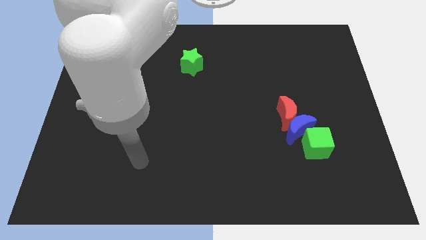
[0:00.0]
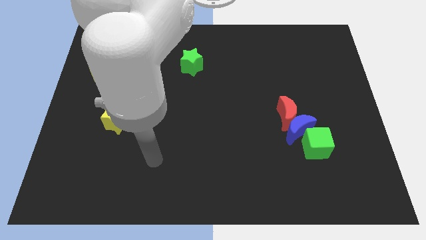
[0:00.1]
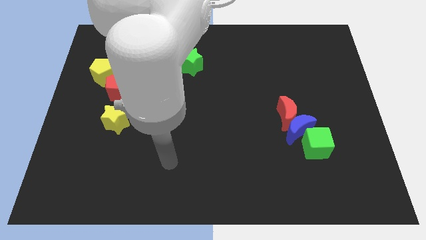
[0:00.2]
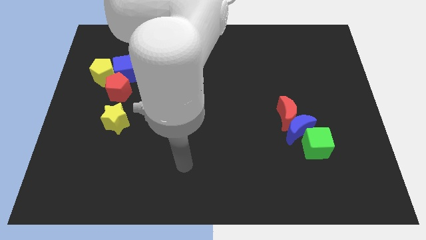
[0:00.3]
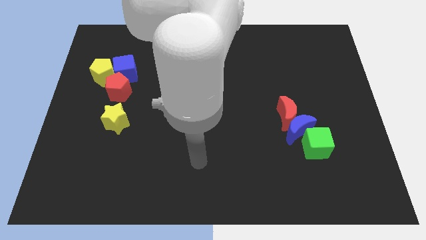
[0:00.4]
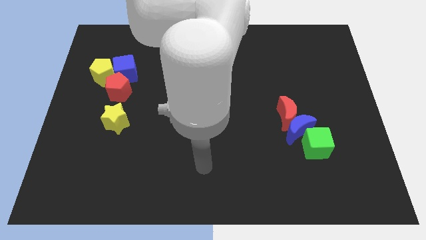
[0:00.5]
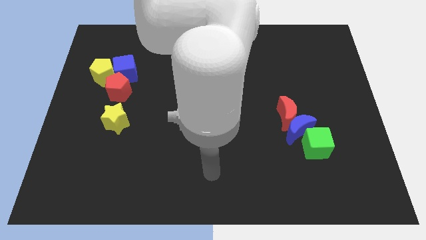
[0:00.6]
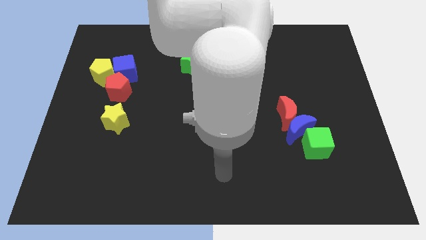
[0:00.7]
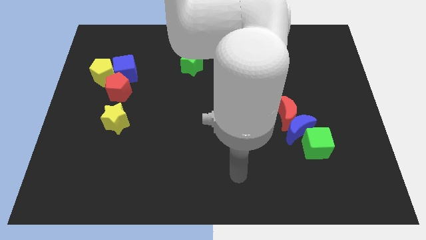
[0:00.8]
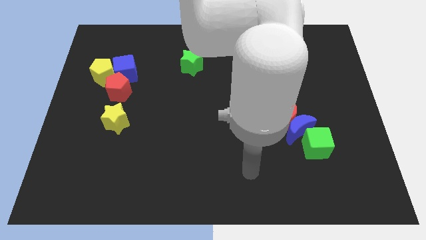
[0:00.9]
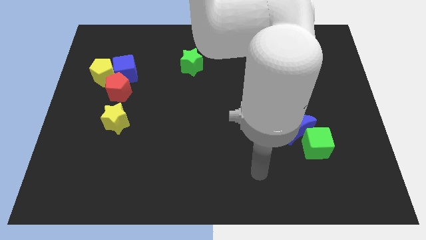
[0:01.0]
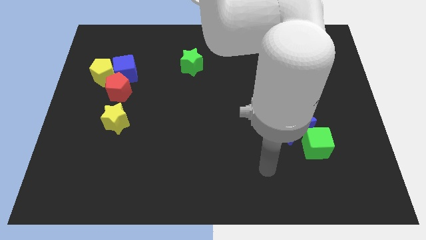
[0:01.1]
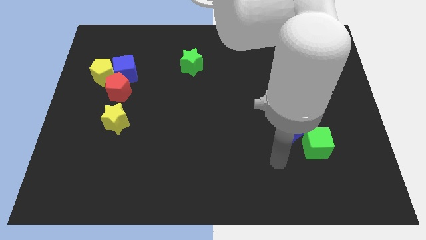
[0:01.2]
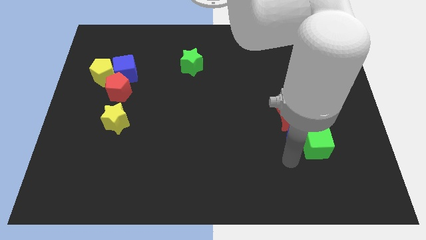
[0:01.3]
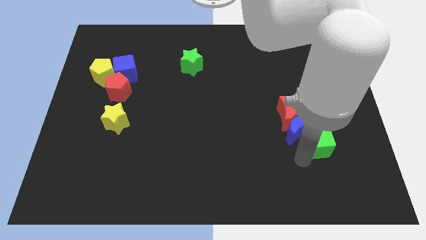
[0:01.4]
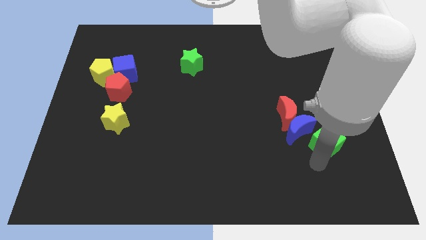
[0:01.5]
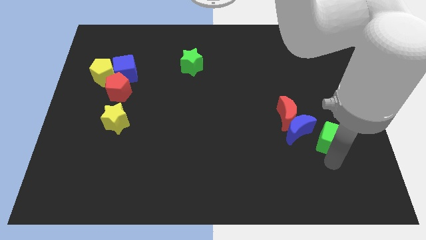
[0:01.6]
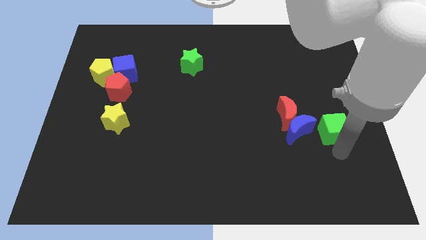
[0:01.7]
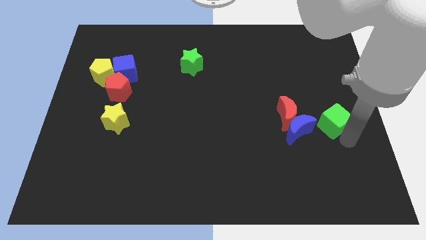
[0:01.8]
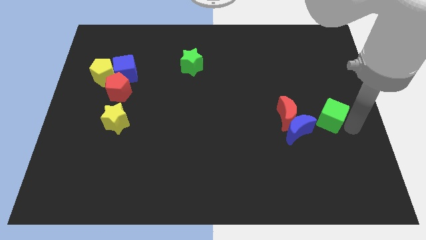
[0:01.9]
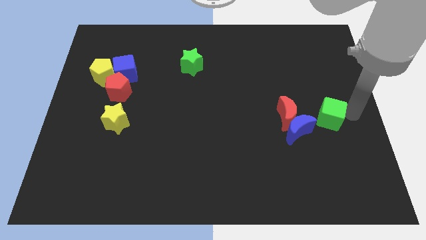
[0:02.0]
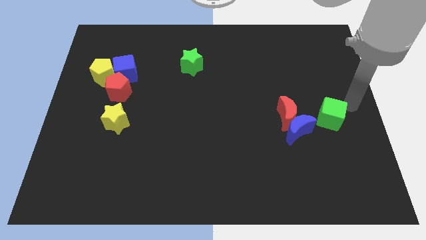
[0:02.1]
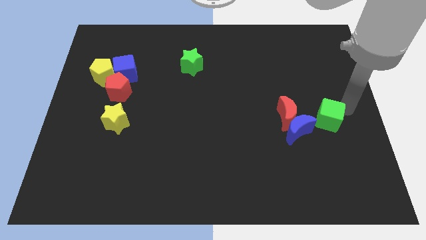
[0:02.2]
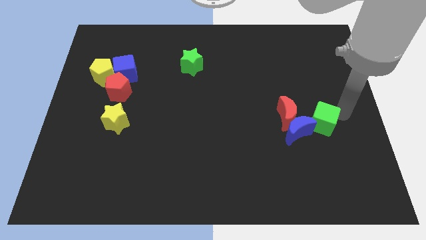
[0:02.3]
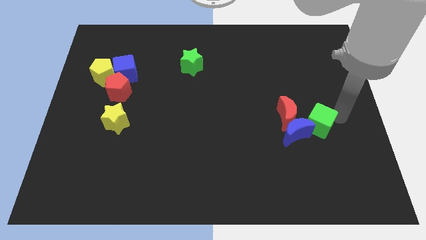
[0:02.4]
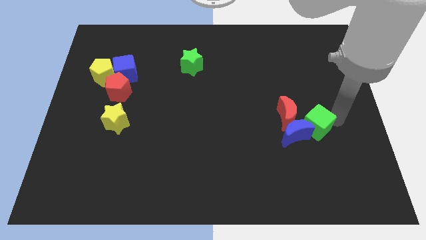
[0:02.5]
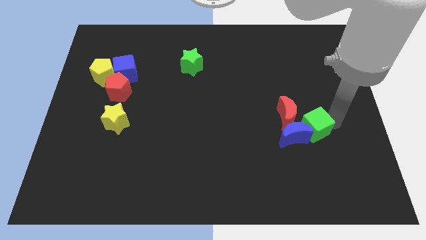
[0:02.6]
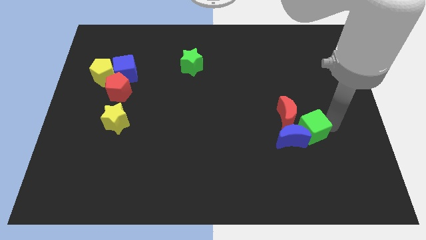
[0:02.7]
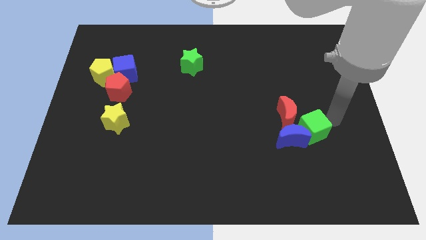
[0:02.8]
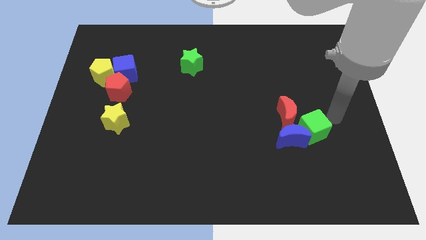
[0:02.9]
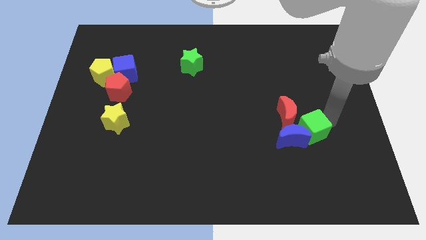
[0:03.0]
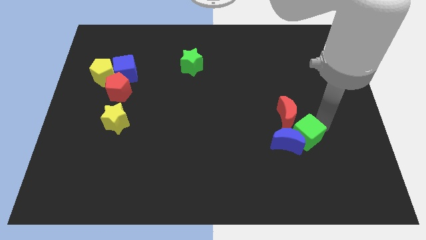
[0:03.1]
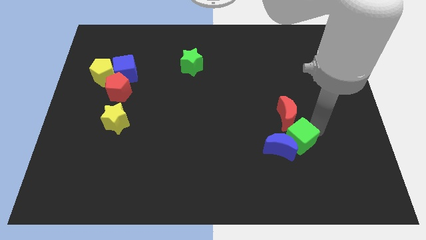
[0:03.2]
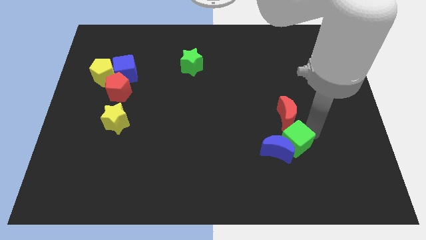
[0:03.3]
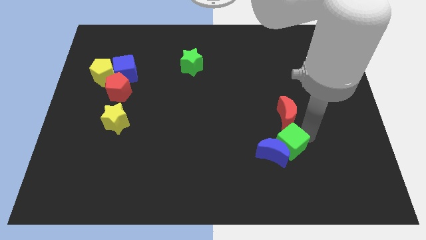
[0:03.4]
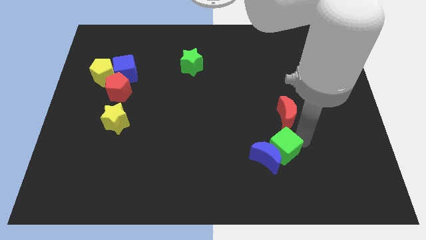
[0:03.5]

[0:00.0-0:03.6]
slide the green cube slightly left

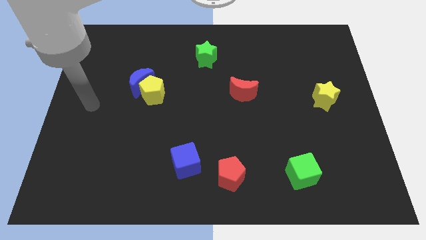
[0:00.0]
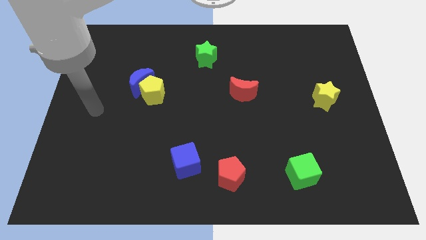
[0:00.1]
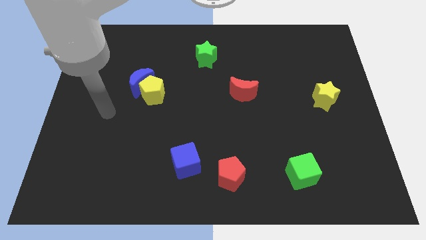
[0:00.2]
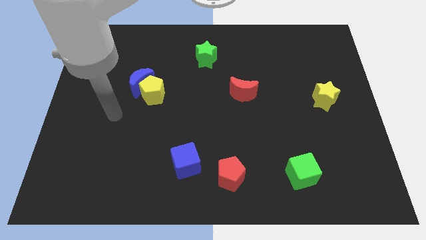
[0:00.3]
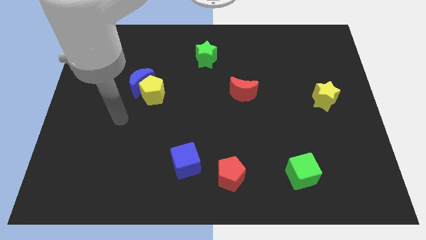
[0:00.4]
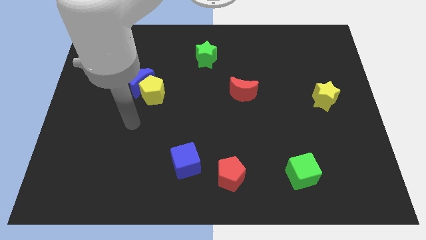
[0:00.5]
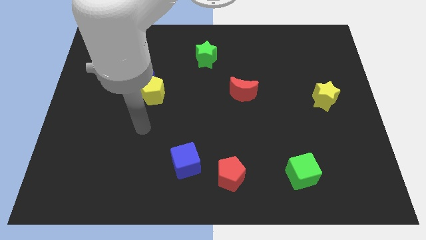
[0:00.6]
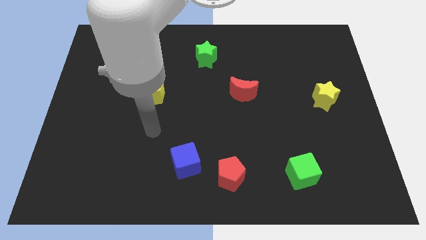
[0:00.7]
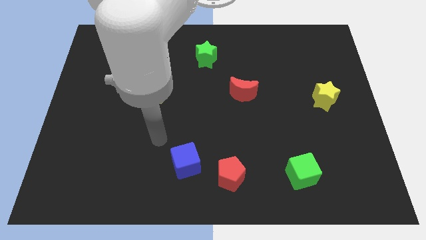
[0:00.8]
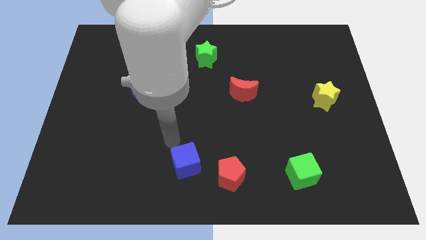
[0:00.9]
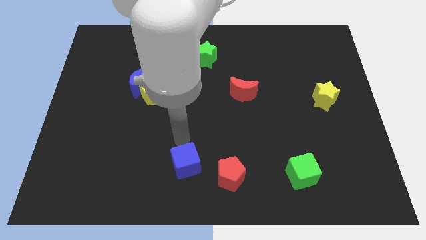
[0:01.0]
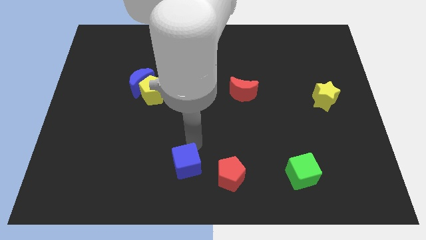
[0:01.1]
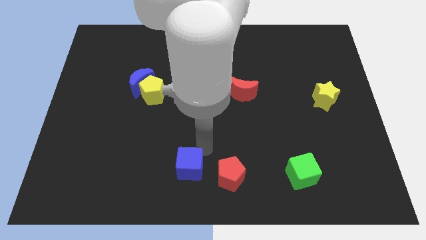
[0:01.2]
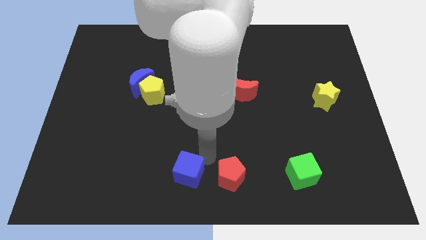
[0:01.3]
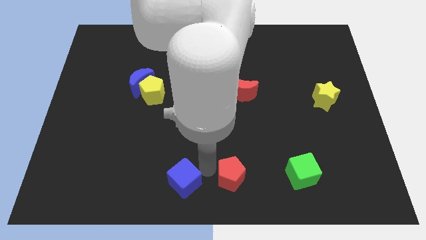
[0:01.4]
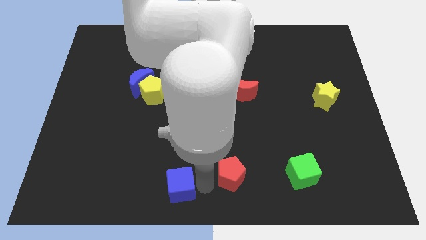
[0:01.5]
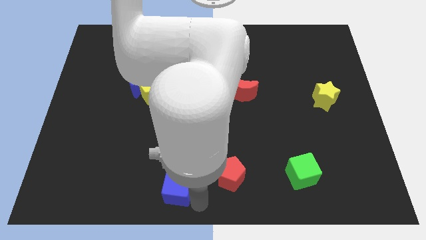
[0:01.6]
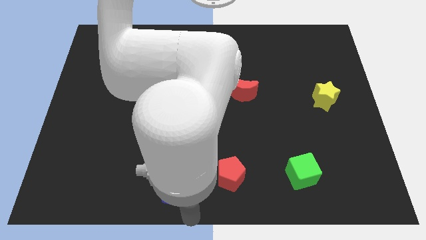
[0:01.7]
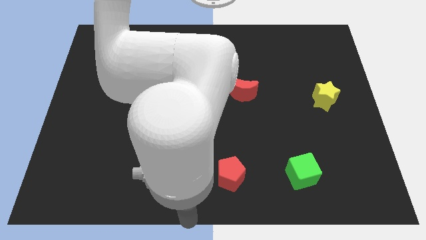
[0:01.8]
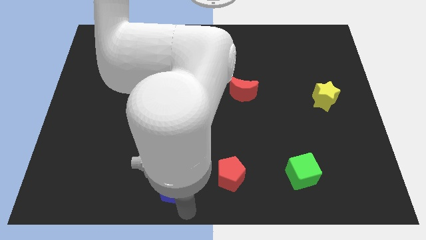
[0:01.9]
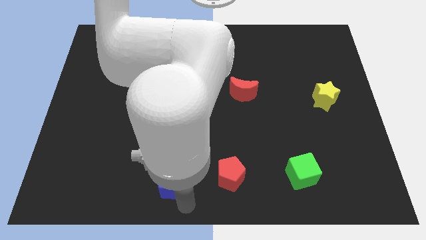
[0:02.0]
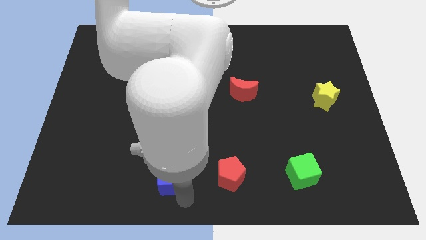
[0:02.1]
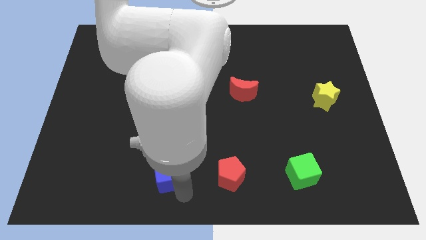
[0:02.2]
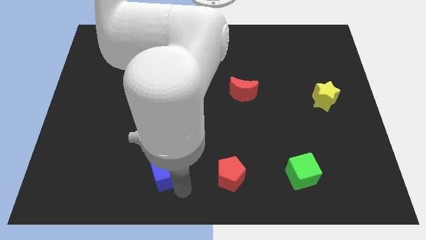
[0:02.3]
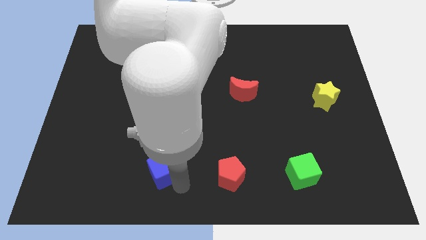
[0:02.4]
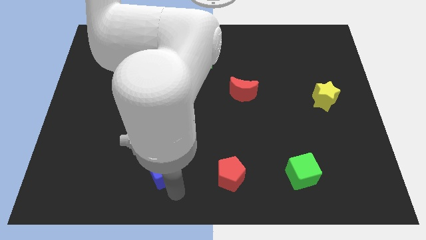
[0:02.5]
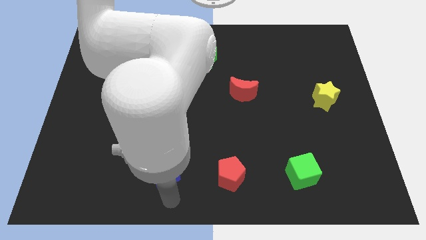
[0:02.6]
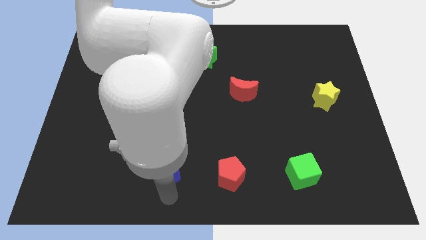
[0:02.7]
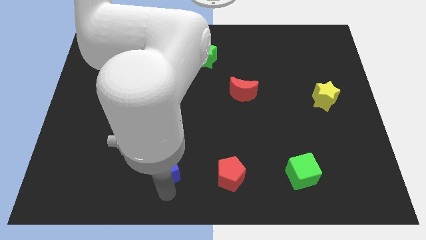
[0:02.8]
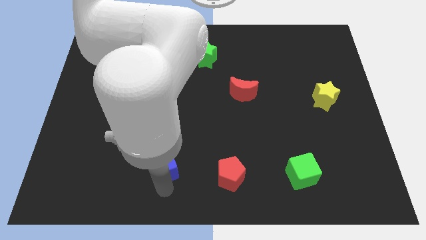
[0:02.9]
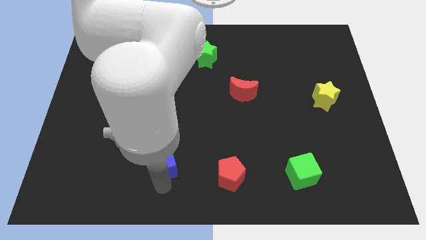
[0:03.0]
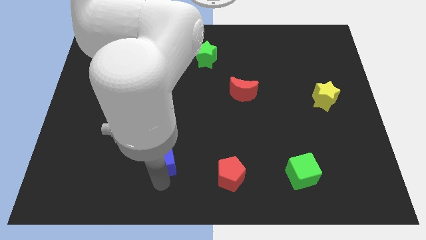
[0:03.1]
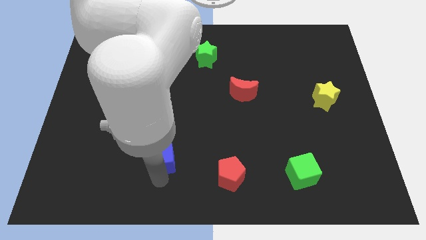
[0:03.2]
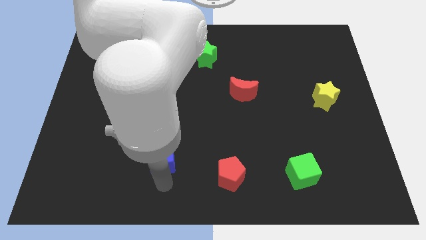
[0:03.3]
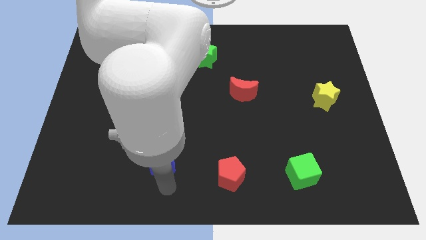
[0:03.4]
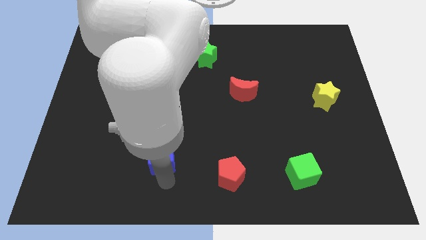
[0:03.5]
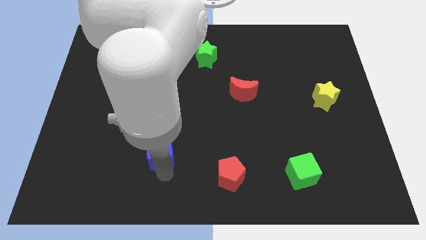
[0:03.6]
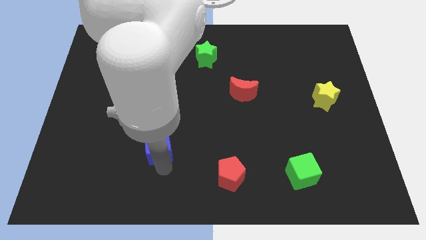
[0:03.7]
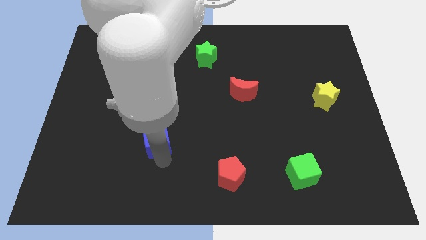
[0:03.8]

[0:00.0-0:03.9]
slide the blue cube a bit upwards and then to the left

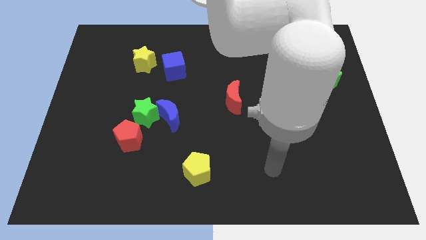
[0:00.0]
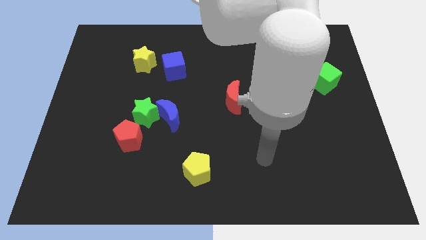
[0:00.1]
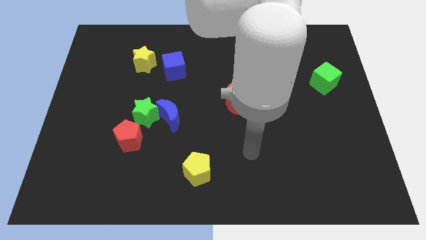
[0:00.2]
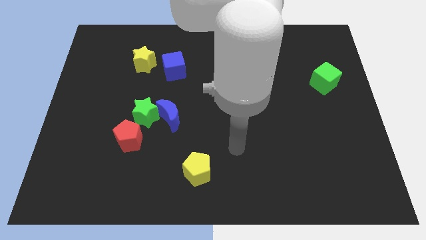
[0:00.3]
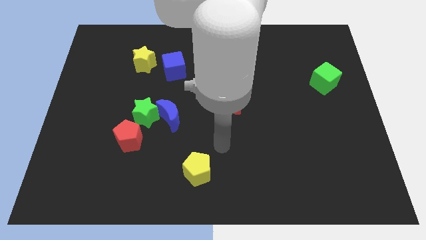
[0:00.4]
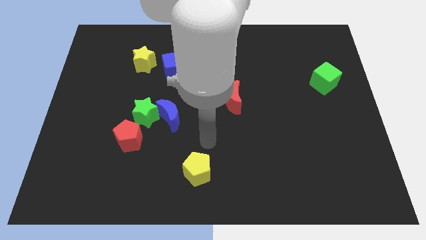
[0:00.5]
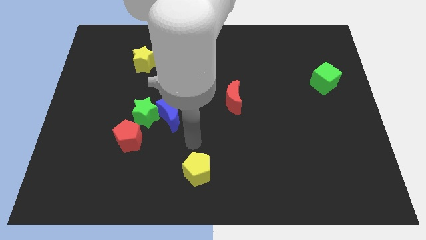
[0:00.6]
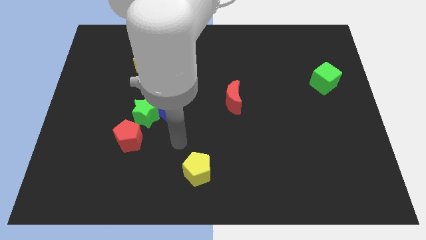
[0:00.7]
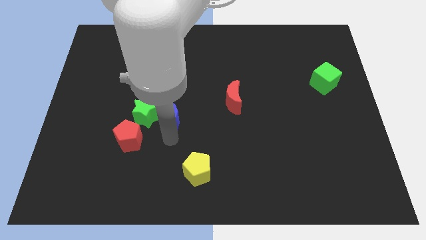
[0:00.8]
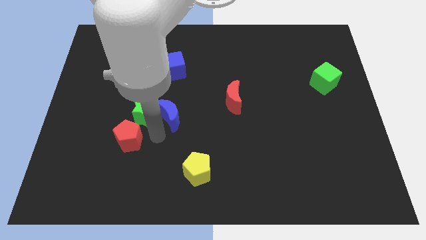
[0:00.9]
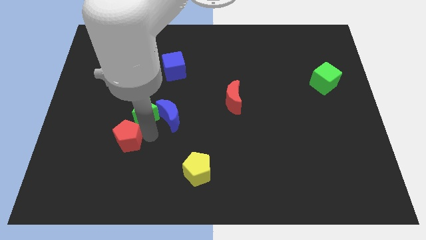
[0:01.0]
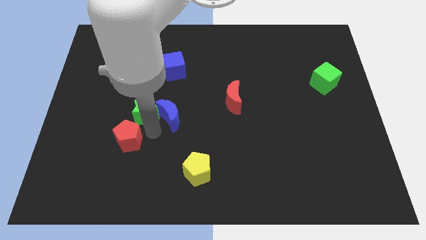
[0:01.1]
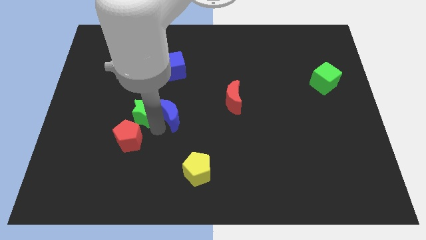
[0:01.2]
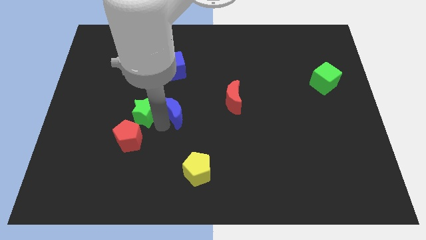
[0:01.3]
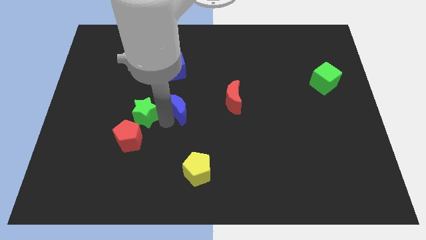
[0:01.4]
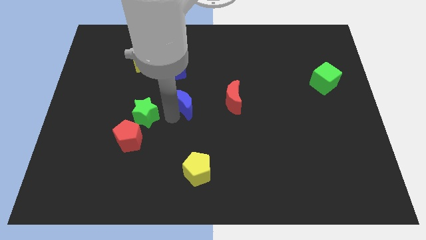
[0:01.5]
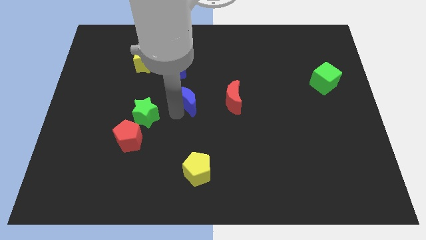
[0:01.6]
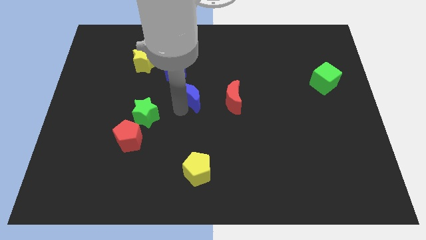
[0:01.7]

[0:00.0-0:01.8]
slightly move the blue moon upwards and to the right diagonally
